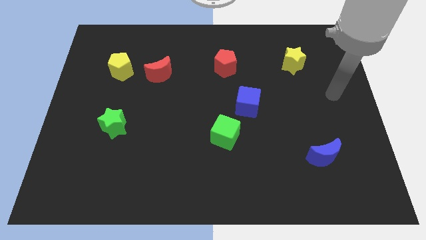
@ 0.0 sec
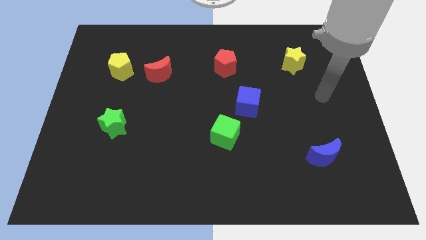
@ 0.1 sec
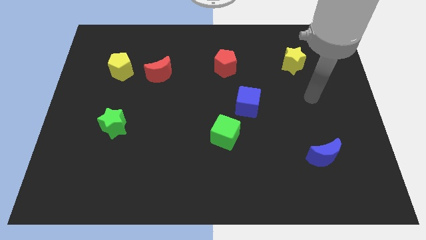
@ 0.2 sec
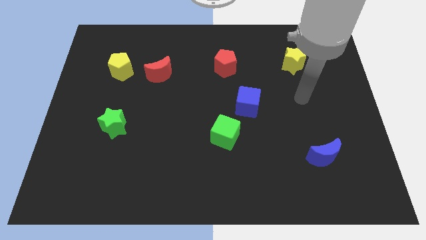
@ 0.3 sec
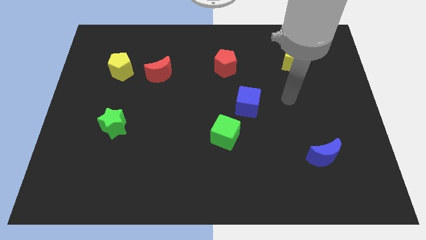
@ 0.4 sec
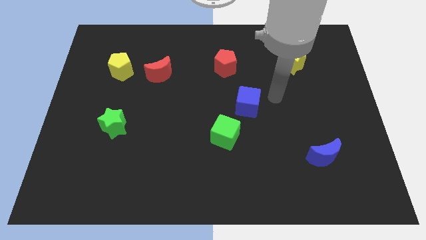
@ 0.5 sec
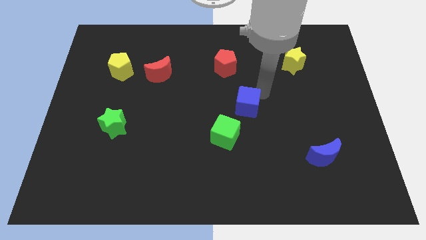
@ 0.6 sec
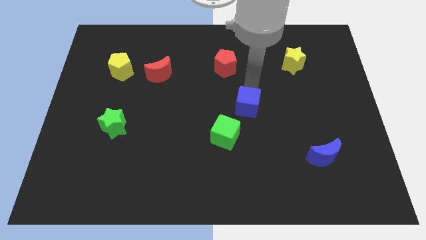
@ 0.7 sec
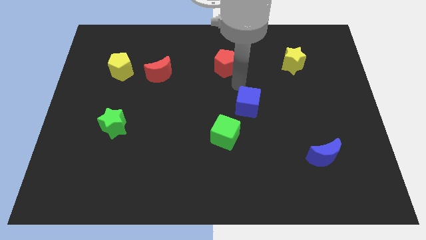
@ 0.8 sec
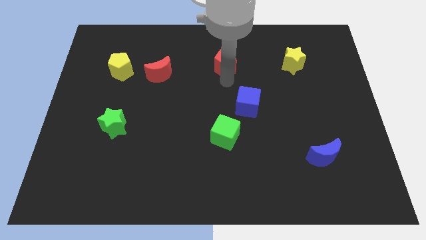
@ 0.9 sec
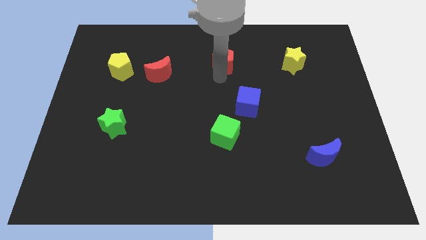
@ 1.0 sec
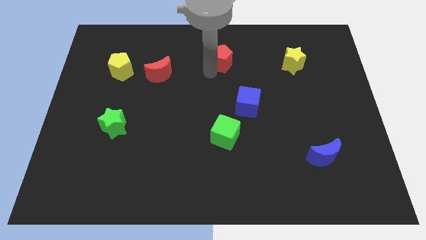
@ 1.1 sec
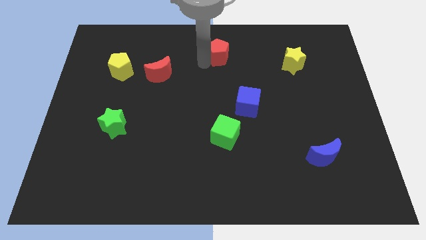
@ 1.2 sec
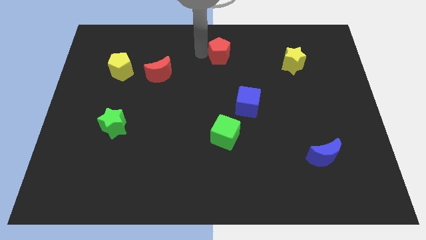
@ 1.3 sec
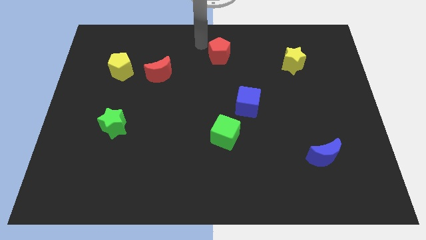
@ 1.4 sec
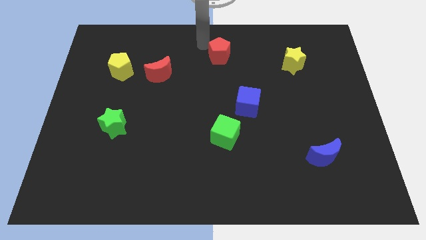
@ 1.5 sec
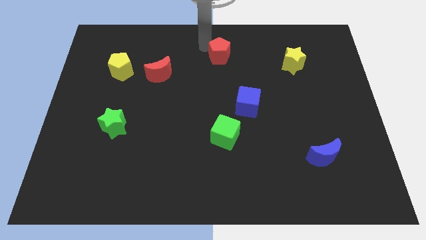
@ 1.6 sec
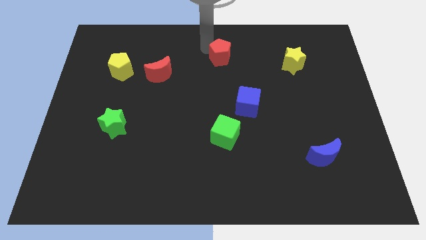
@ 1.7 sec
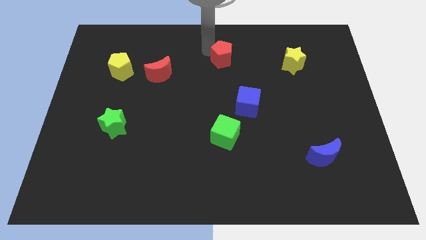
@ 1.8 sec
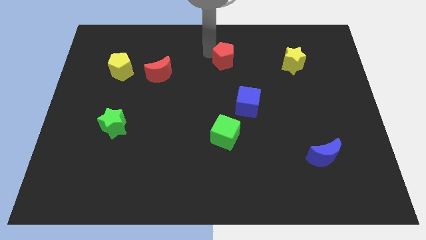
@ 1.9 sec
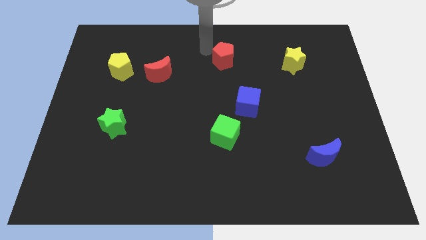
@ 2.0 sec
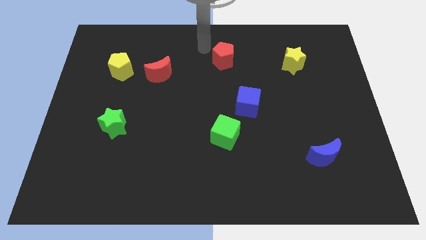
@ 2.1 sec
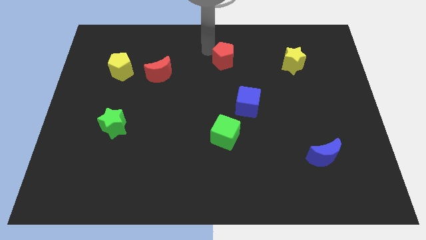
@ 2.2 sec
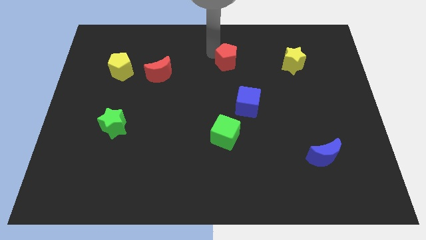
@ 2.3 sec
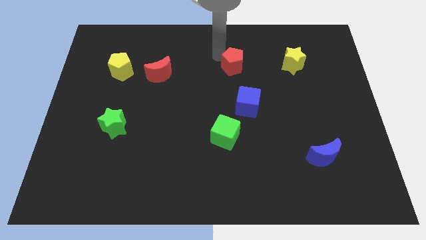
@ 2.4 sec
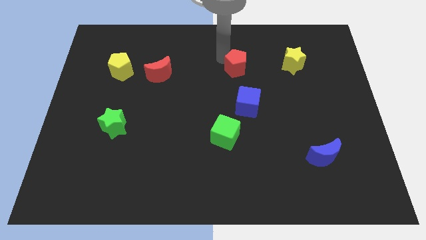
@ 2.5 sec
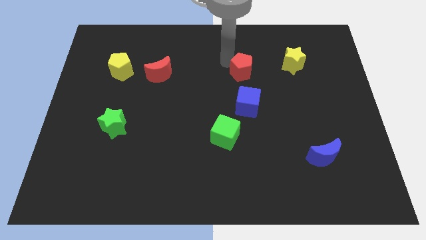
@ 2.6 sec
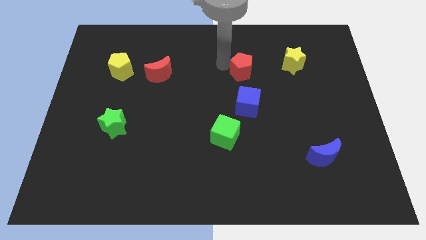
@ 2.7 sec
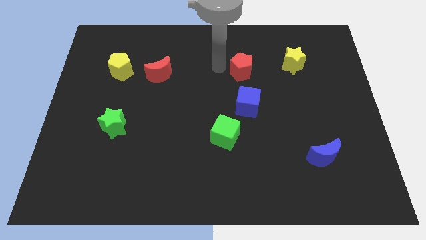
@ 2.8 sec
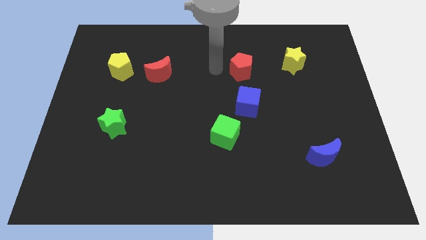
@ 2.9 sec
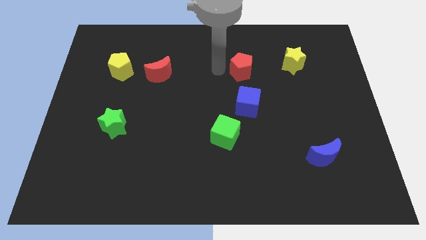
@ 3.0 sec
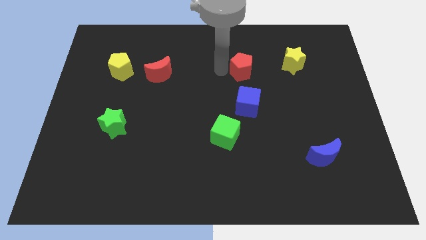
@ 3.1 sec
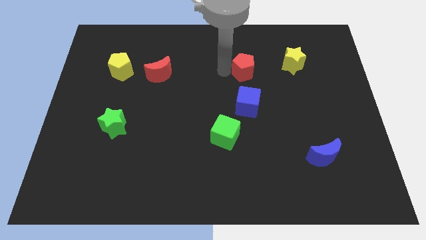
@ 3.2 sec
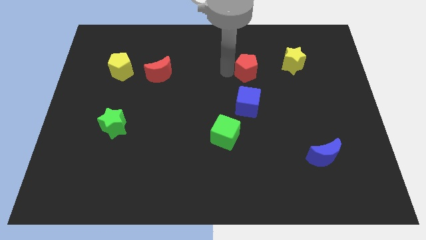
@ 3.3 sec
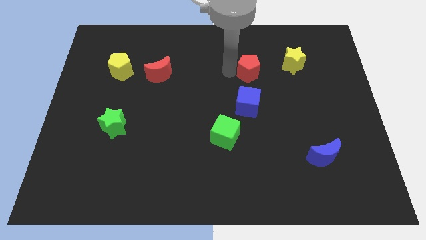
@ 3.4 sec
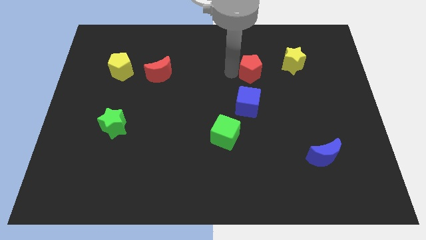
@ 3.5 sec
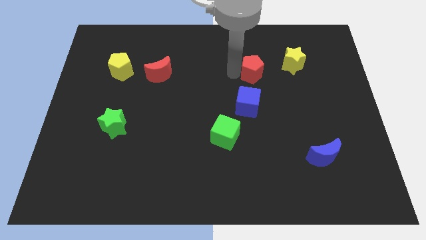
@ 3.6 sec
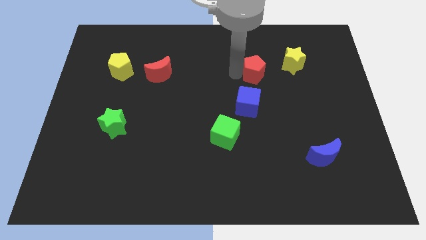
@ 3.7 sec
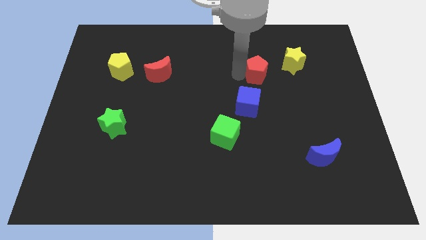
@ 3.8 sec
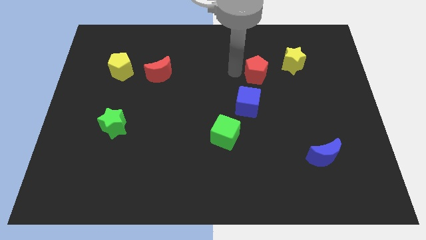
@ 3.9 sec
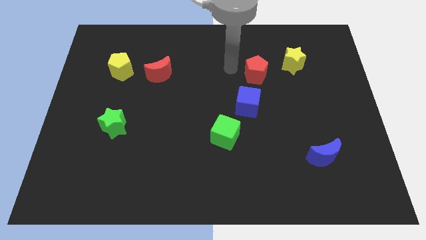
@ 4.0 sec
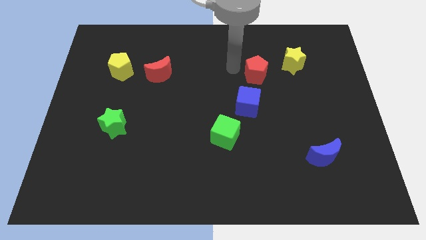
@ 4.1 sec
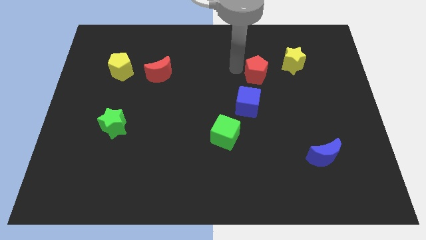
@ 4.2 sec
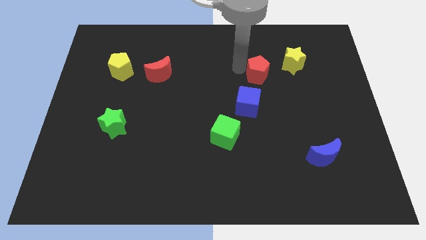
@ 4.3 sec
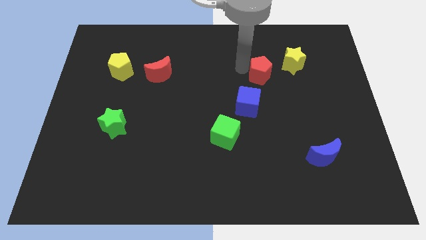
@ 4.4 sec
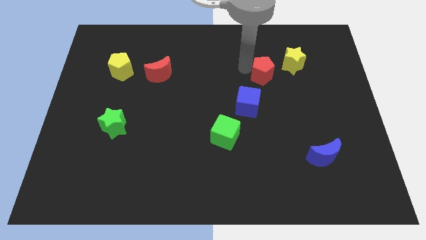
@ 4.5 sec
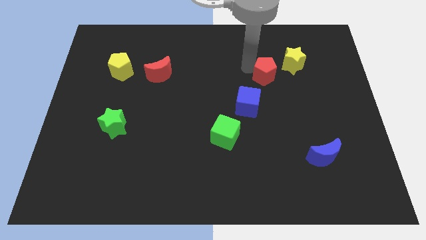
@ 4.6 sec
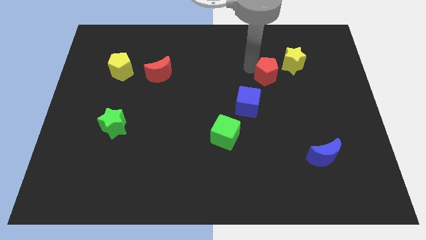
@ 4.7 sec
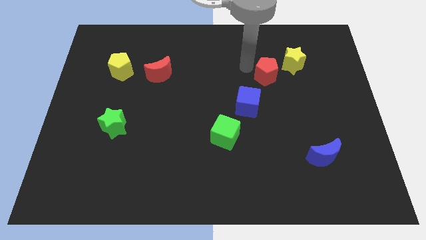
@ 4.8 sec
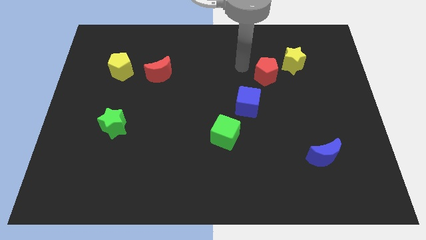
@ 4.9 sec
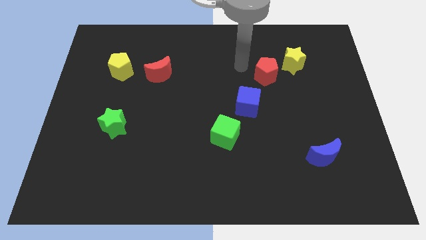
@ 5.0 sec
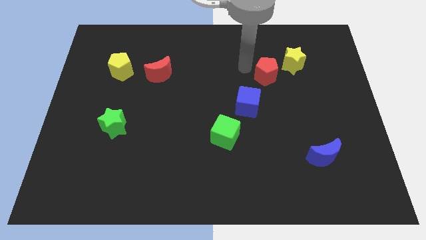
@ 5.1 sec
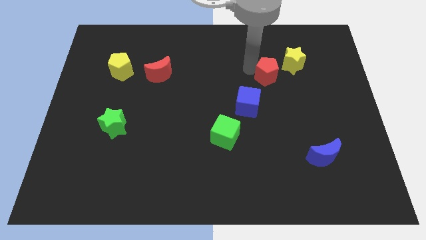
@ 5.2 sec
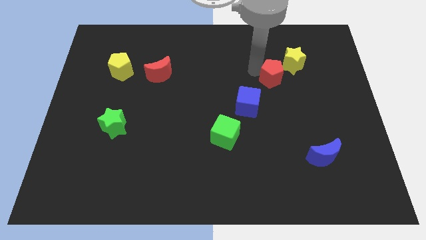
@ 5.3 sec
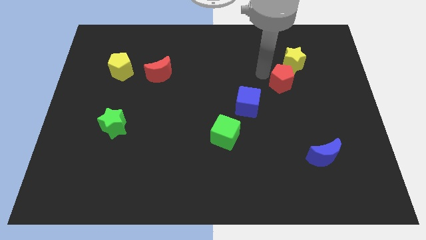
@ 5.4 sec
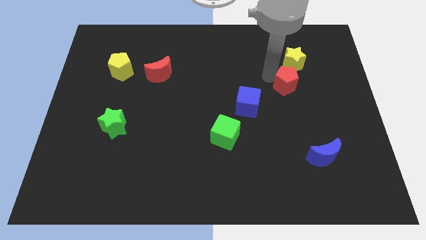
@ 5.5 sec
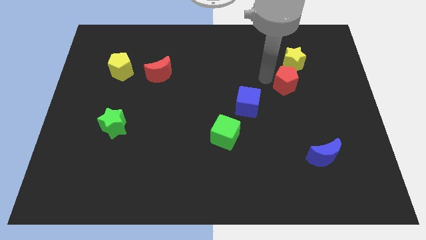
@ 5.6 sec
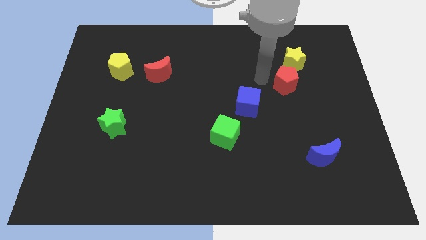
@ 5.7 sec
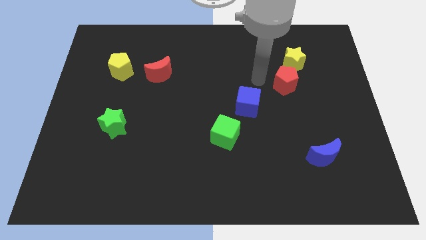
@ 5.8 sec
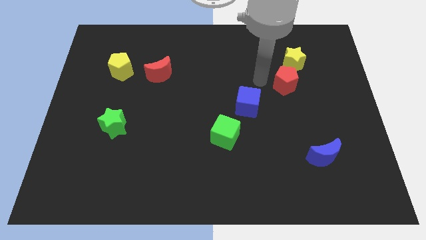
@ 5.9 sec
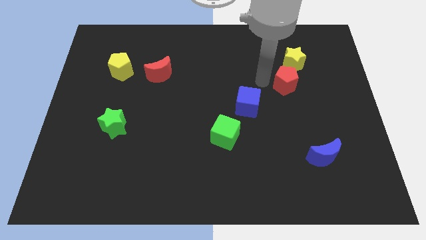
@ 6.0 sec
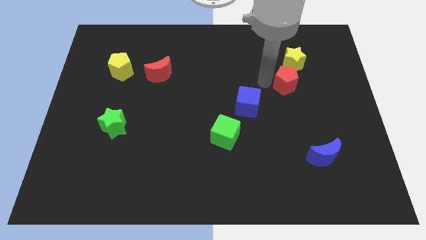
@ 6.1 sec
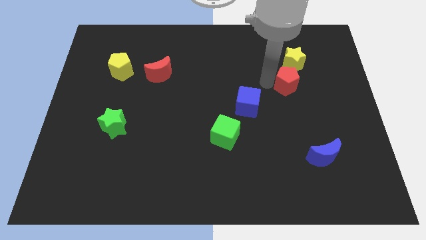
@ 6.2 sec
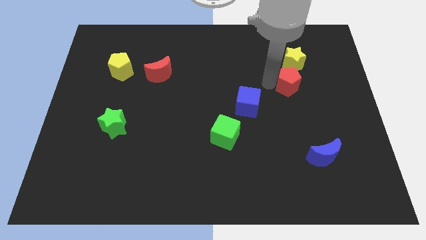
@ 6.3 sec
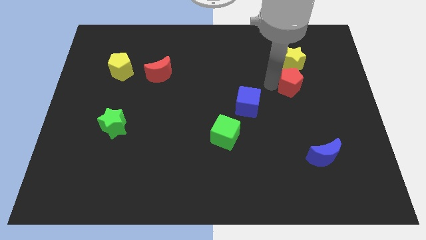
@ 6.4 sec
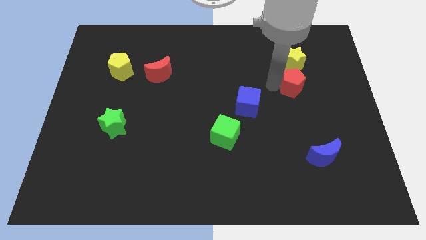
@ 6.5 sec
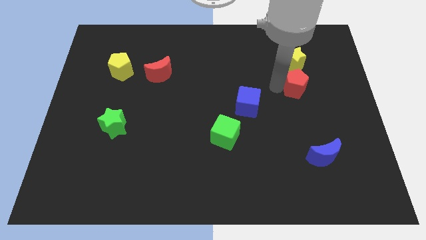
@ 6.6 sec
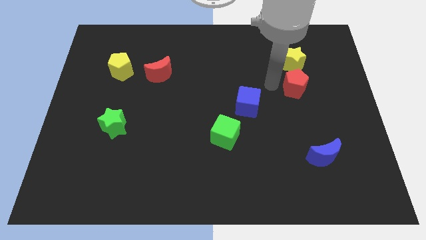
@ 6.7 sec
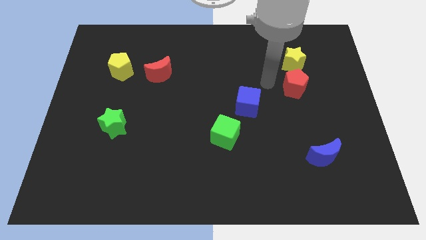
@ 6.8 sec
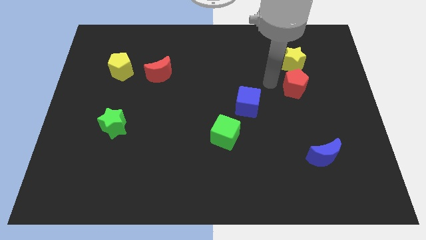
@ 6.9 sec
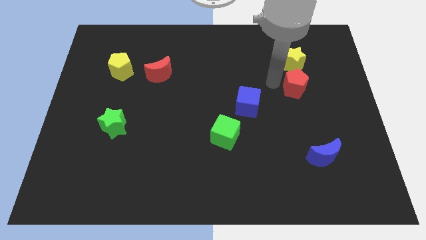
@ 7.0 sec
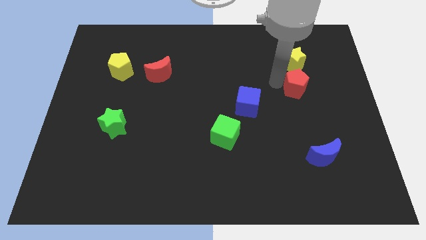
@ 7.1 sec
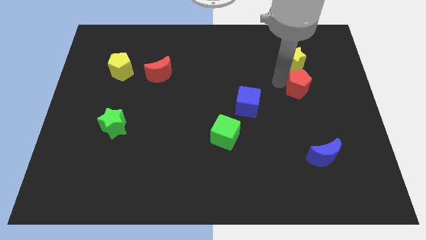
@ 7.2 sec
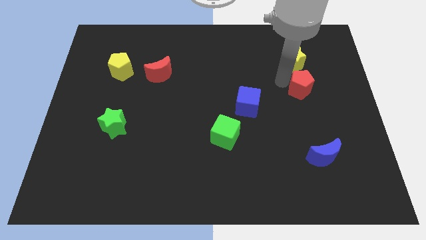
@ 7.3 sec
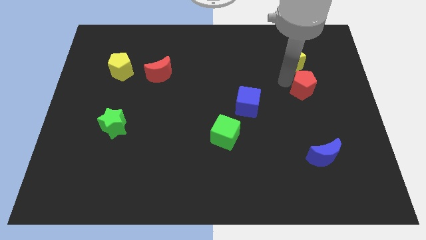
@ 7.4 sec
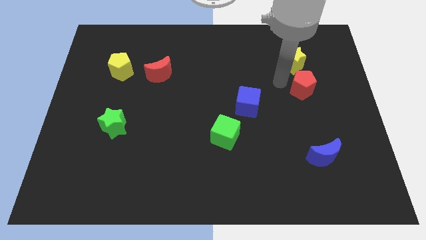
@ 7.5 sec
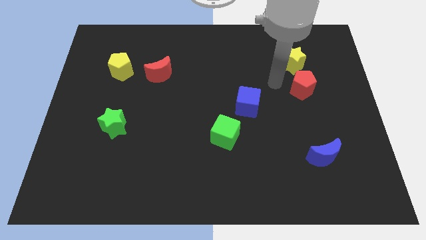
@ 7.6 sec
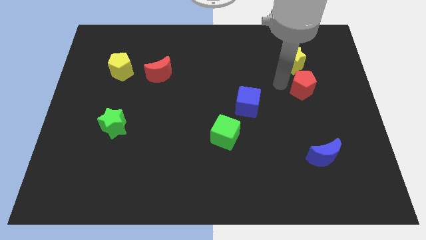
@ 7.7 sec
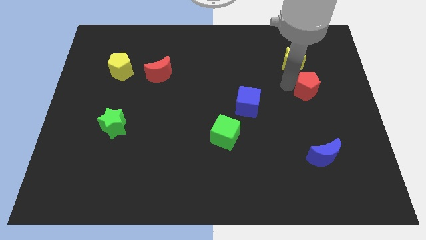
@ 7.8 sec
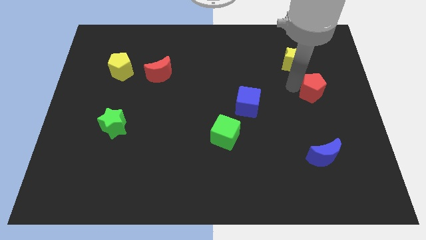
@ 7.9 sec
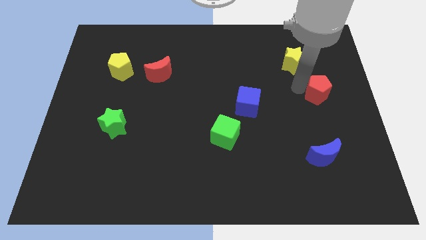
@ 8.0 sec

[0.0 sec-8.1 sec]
put the red pentagon to the center right
